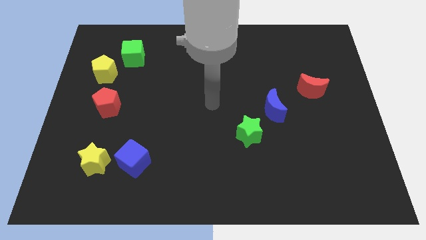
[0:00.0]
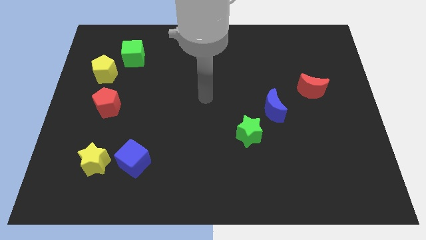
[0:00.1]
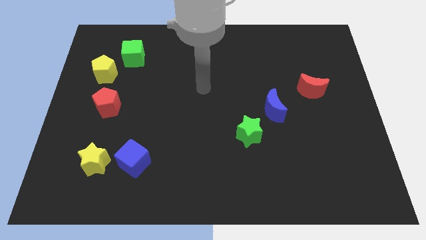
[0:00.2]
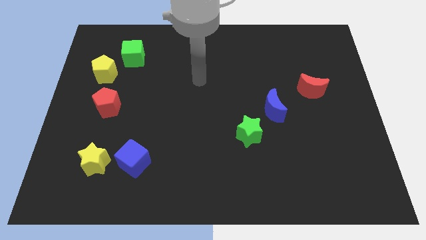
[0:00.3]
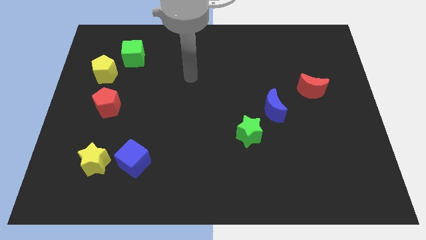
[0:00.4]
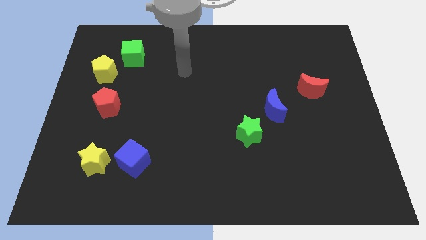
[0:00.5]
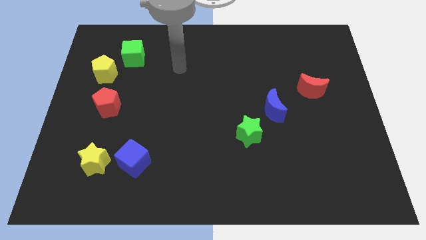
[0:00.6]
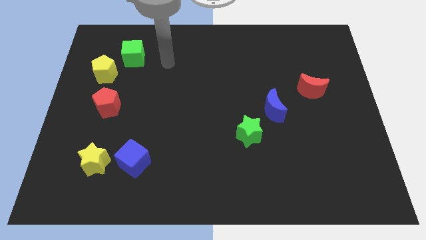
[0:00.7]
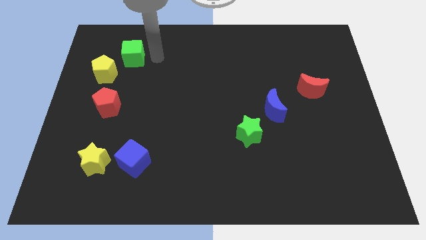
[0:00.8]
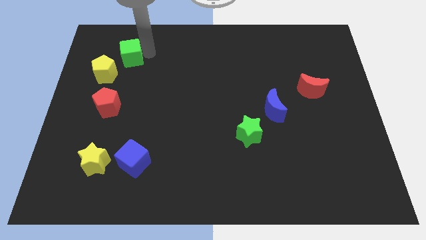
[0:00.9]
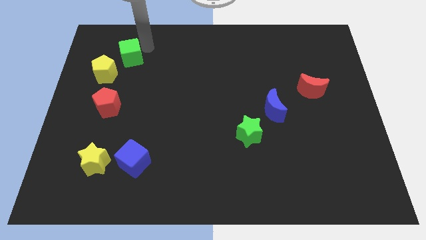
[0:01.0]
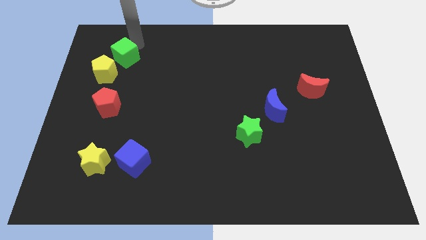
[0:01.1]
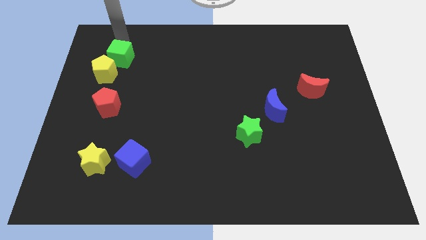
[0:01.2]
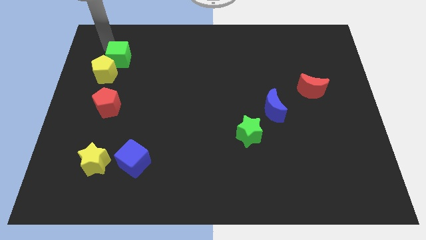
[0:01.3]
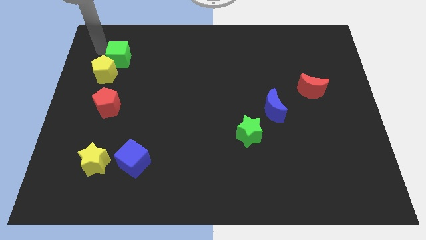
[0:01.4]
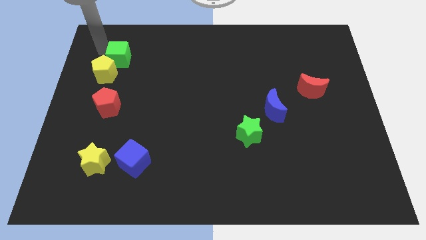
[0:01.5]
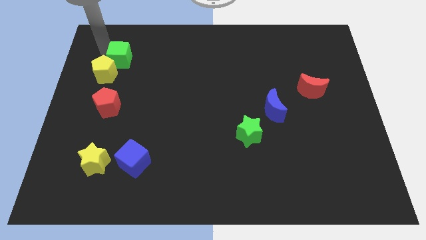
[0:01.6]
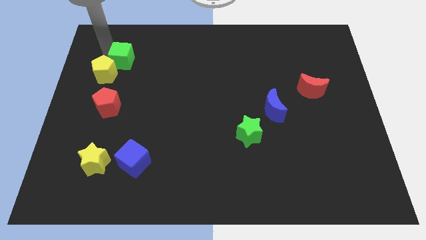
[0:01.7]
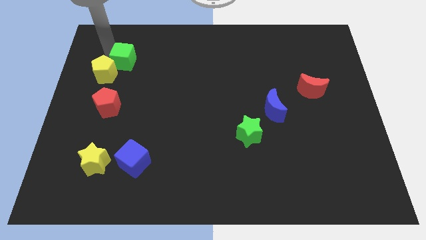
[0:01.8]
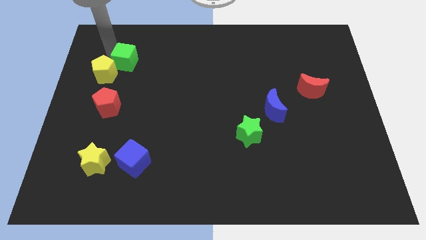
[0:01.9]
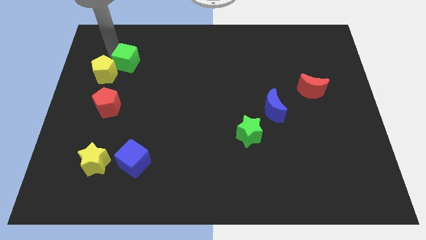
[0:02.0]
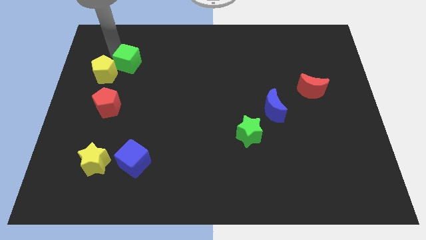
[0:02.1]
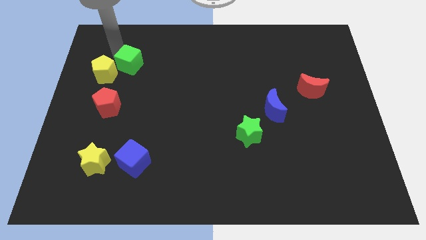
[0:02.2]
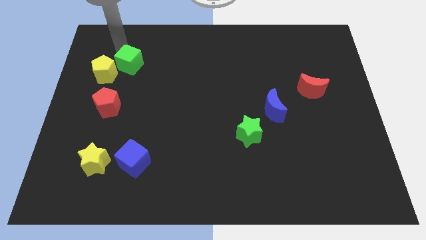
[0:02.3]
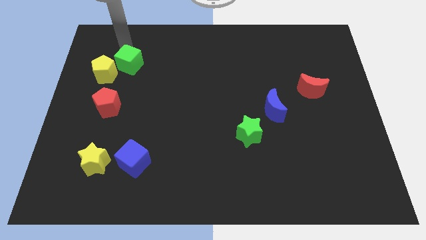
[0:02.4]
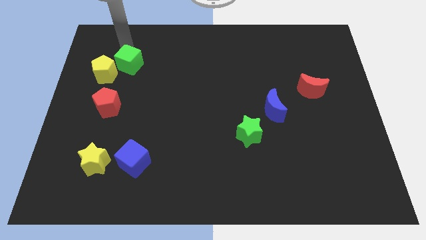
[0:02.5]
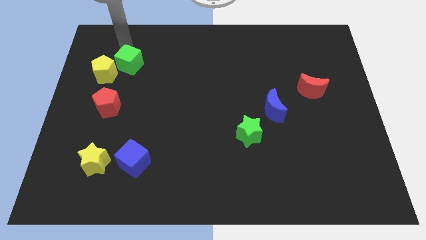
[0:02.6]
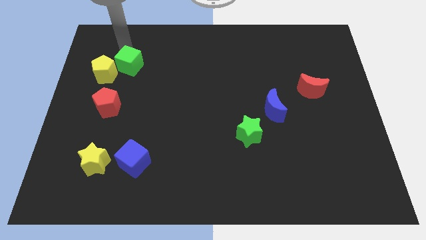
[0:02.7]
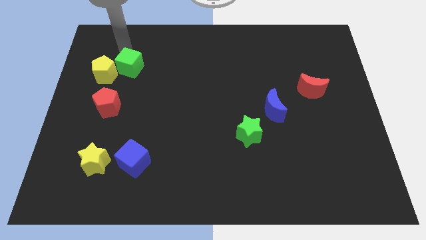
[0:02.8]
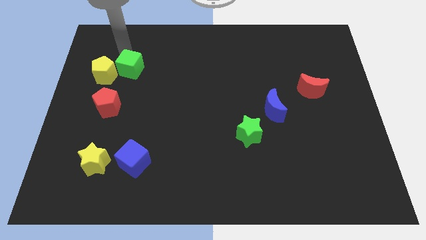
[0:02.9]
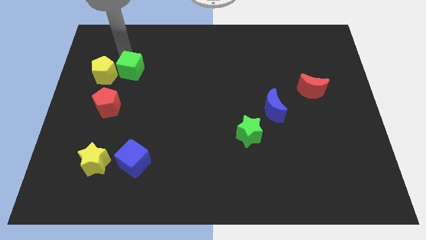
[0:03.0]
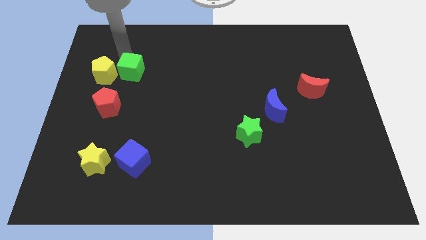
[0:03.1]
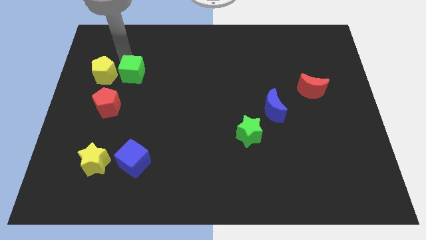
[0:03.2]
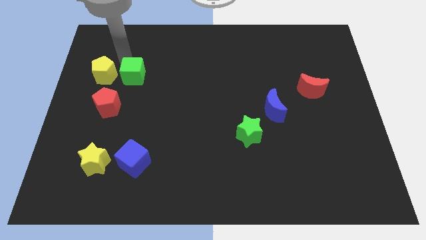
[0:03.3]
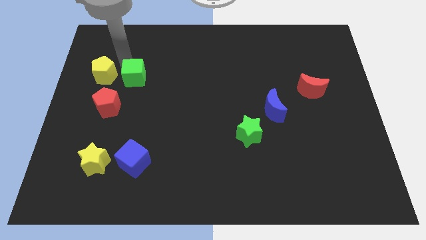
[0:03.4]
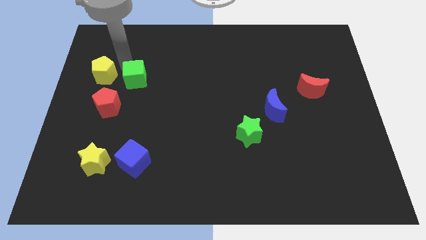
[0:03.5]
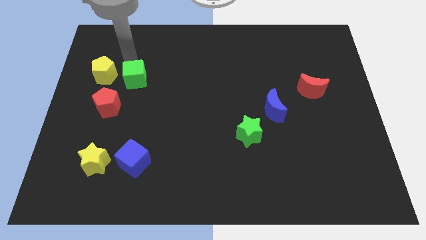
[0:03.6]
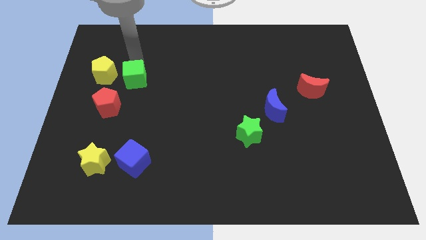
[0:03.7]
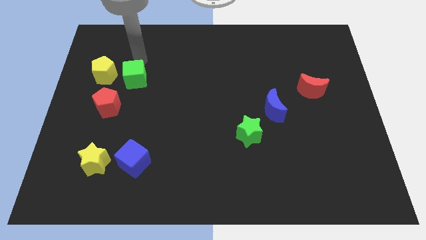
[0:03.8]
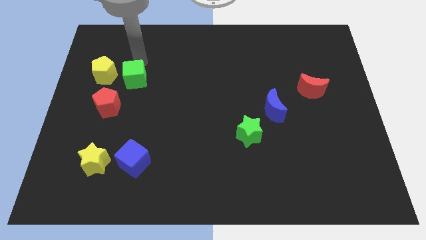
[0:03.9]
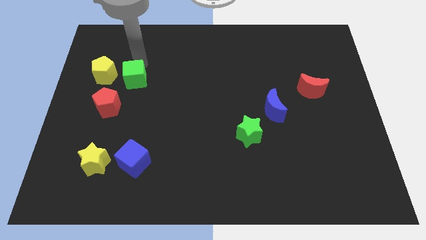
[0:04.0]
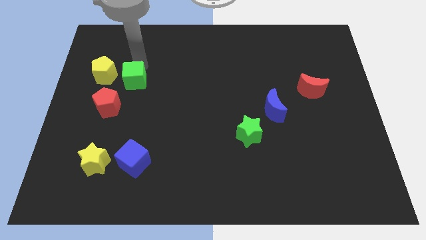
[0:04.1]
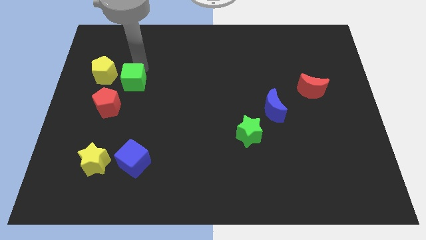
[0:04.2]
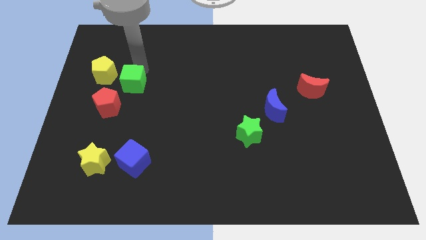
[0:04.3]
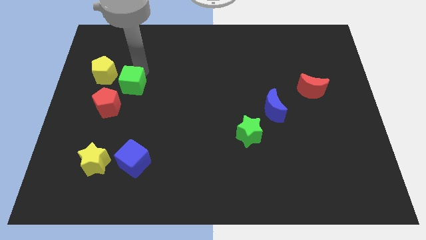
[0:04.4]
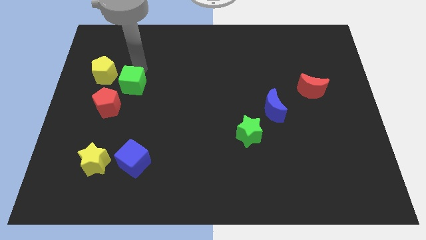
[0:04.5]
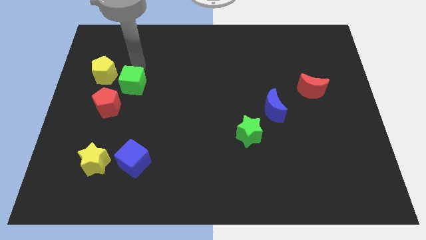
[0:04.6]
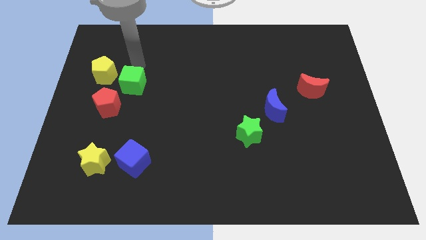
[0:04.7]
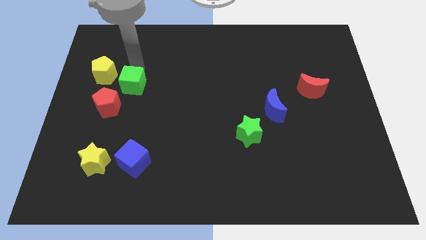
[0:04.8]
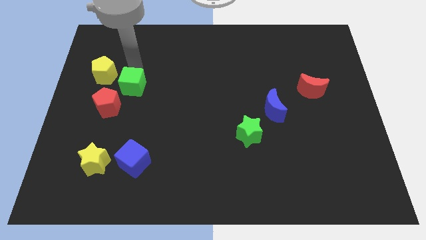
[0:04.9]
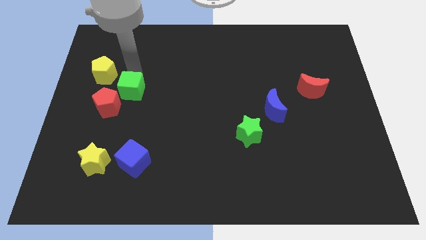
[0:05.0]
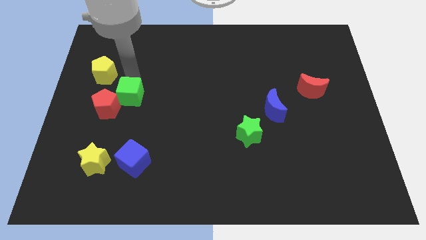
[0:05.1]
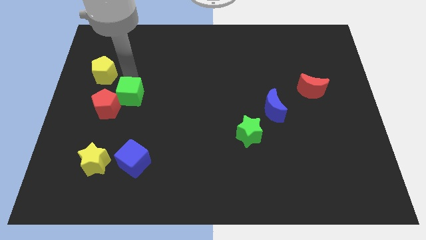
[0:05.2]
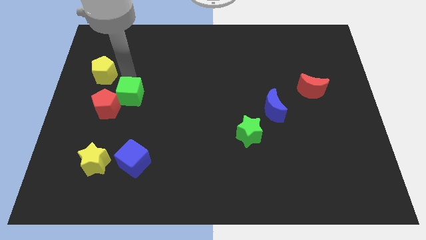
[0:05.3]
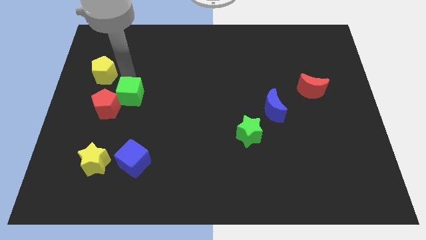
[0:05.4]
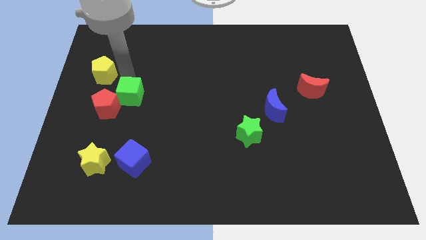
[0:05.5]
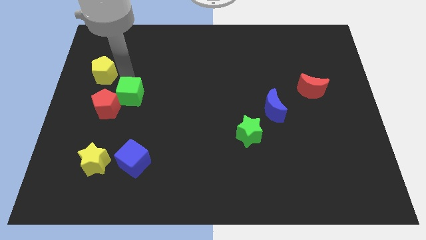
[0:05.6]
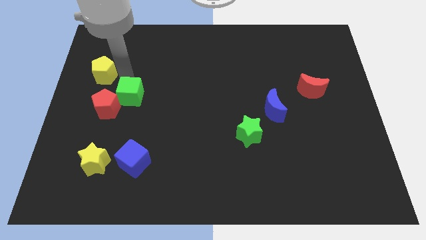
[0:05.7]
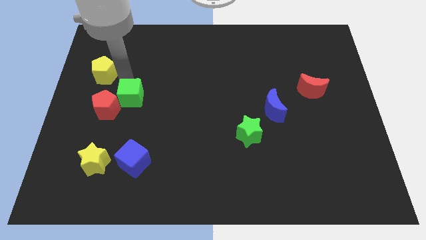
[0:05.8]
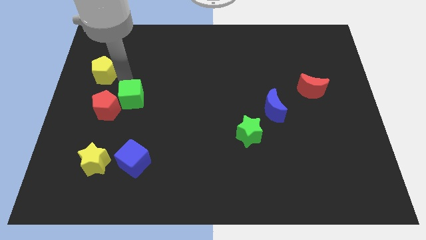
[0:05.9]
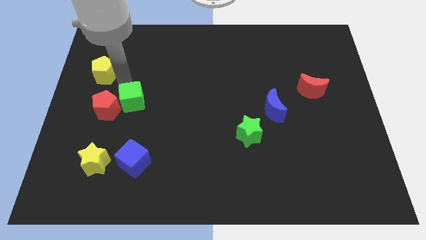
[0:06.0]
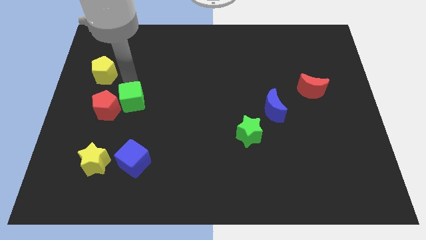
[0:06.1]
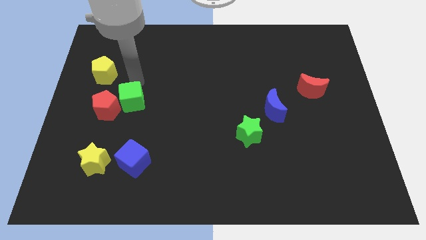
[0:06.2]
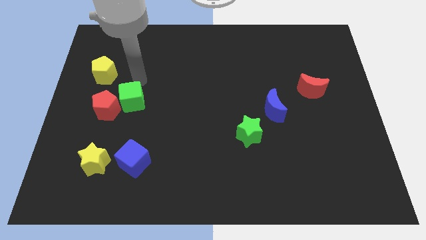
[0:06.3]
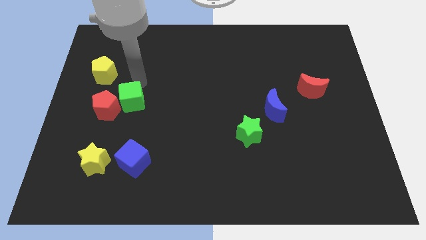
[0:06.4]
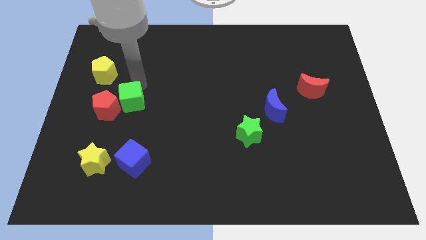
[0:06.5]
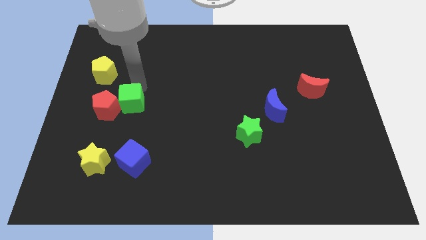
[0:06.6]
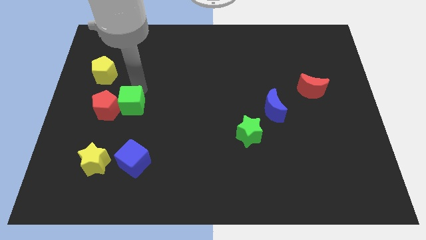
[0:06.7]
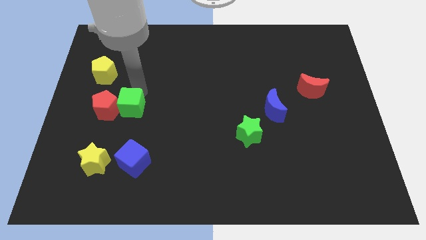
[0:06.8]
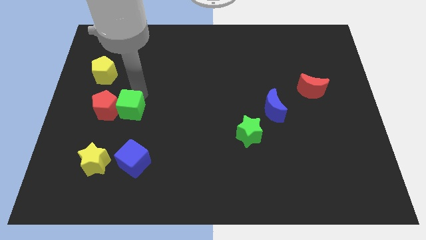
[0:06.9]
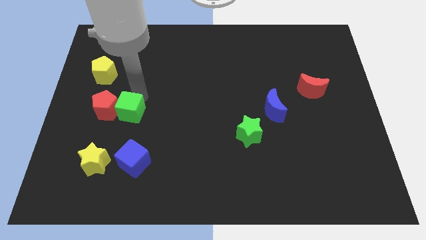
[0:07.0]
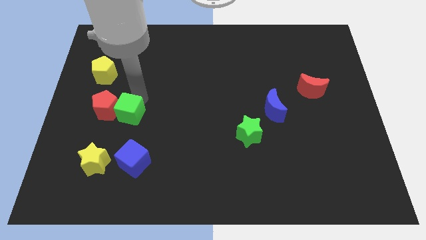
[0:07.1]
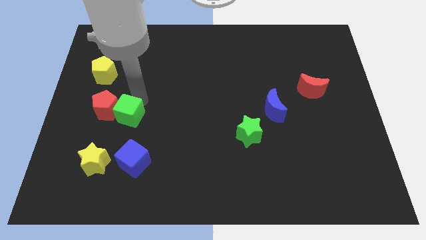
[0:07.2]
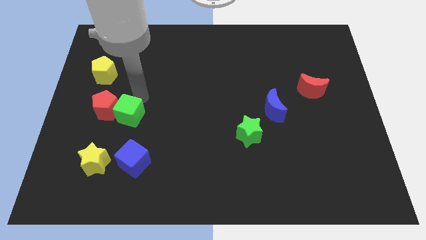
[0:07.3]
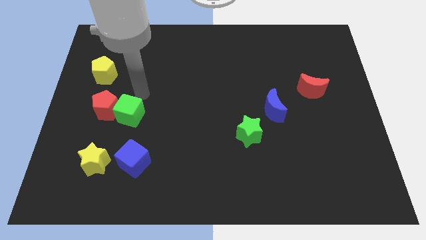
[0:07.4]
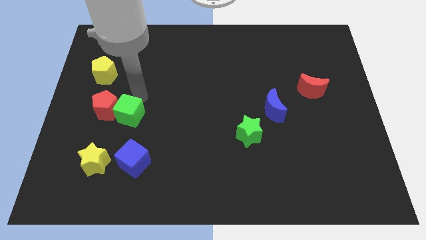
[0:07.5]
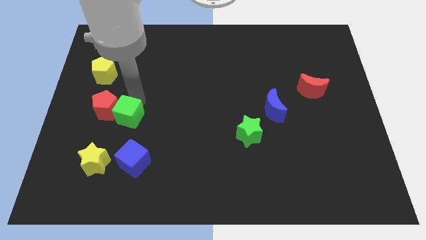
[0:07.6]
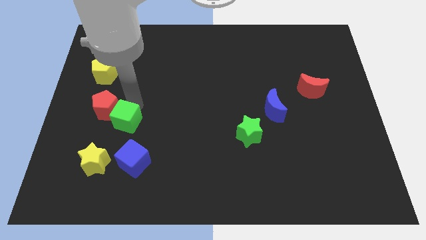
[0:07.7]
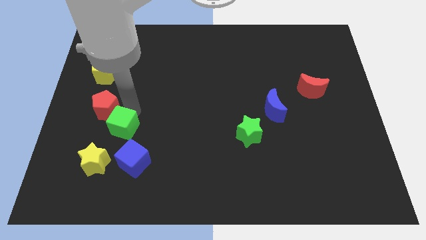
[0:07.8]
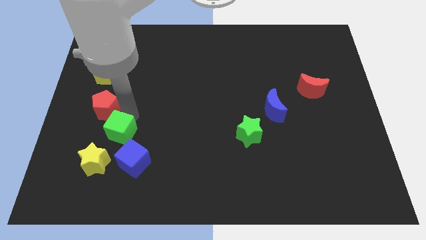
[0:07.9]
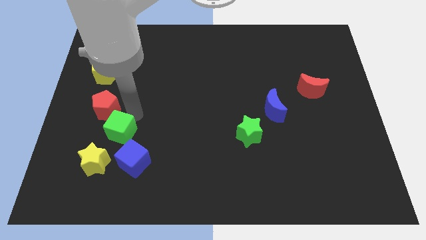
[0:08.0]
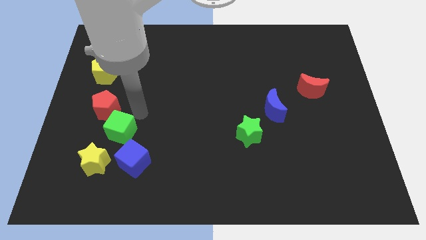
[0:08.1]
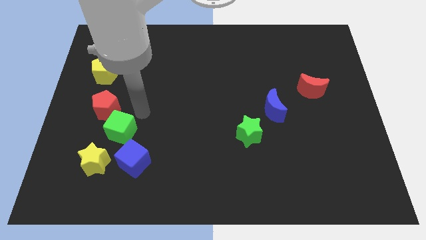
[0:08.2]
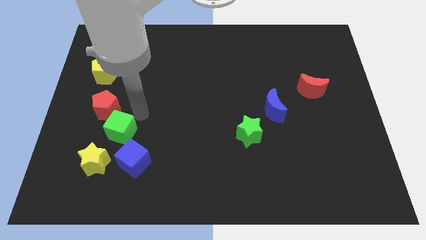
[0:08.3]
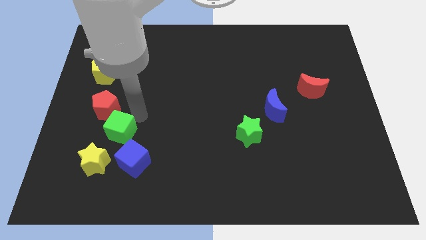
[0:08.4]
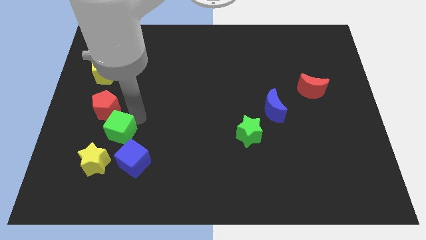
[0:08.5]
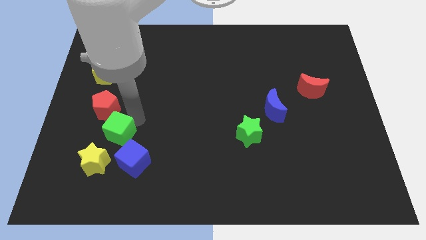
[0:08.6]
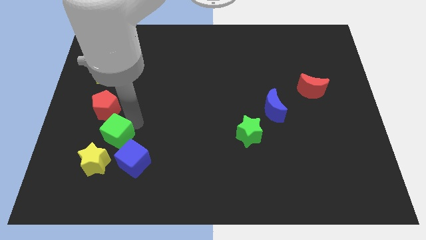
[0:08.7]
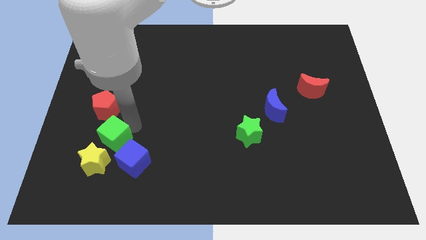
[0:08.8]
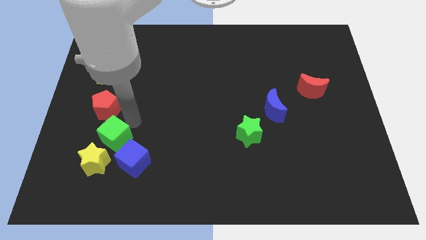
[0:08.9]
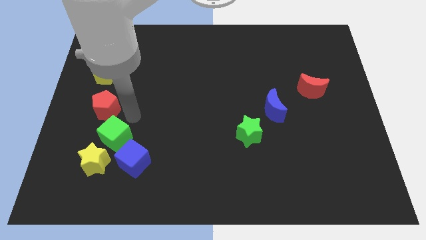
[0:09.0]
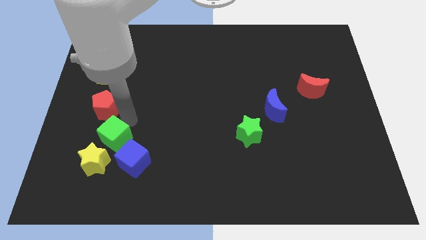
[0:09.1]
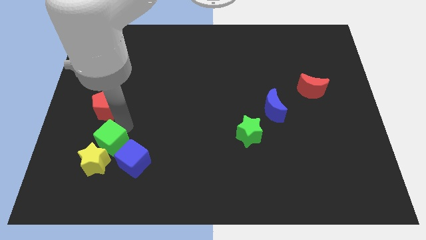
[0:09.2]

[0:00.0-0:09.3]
move the green cube to the yellow star
